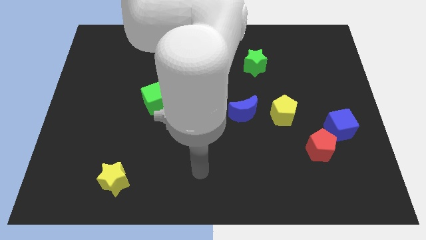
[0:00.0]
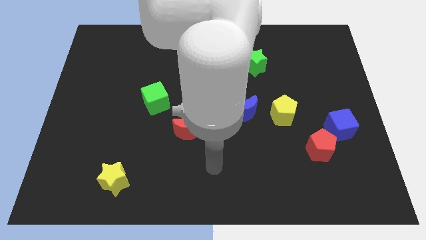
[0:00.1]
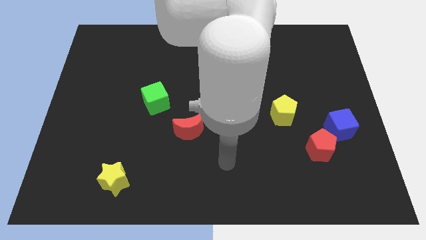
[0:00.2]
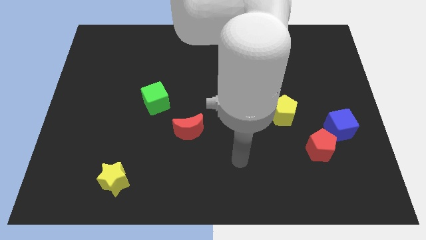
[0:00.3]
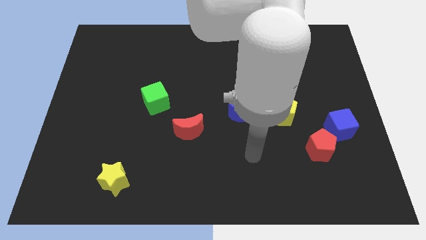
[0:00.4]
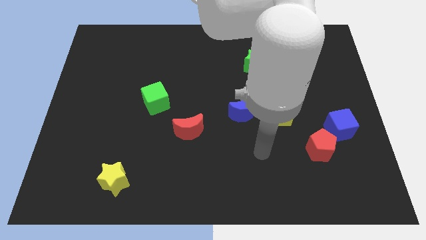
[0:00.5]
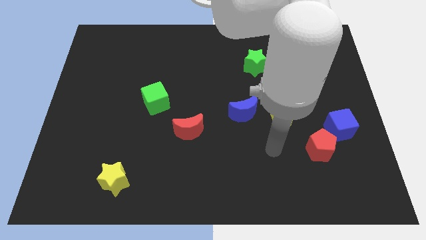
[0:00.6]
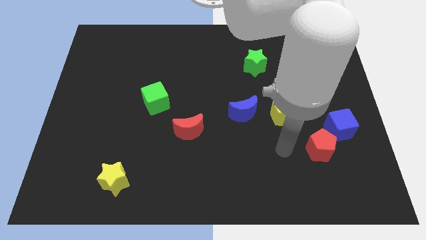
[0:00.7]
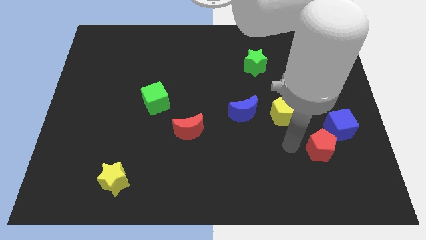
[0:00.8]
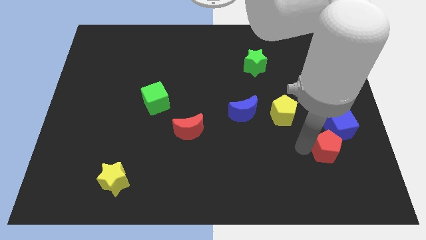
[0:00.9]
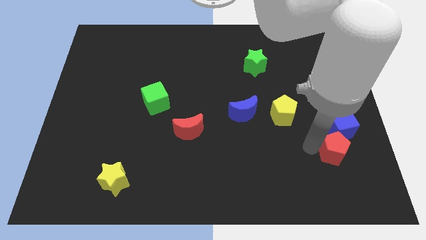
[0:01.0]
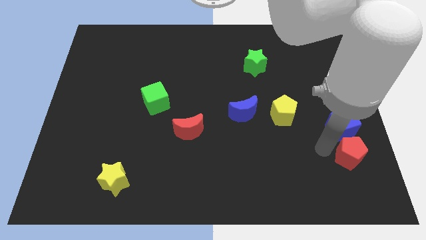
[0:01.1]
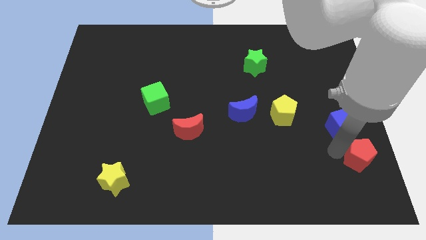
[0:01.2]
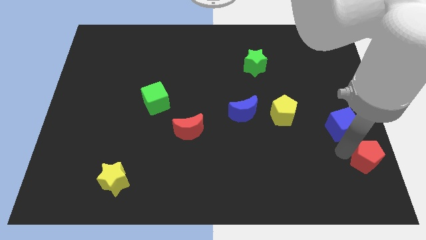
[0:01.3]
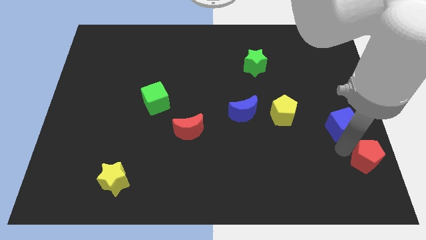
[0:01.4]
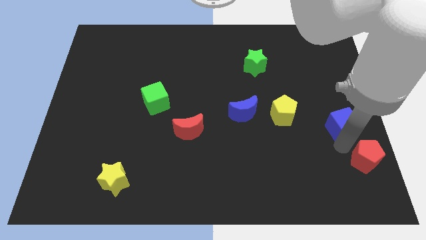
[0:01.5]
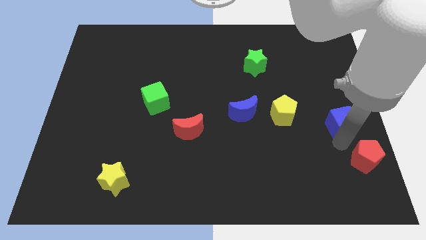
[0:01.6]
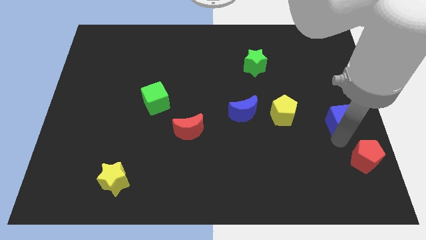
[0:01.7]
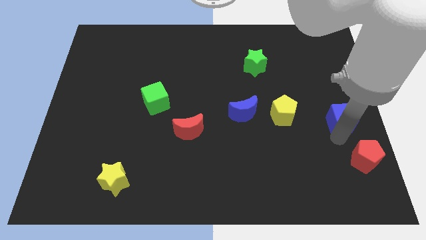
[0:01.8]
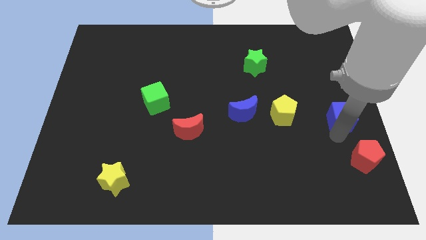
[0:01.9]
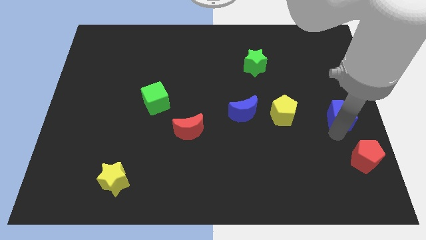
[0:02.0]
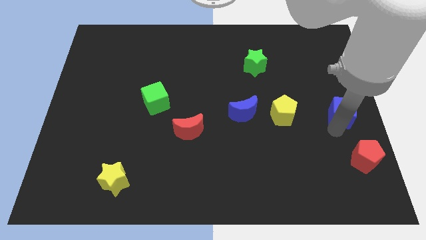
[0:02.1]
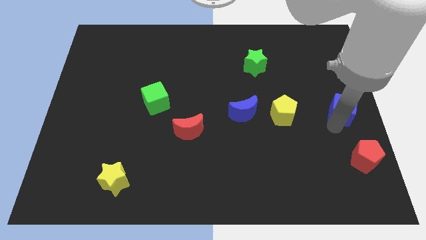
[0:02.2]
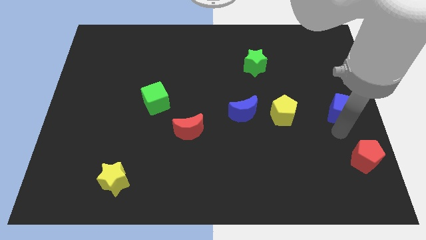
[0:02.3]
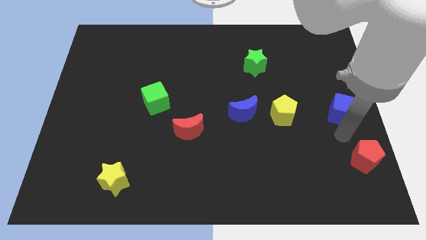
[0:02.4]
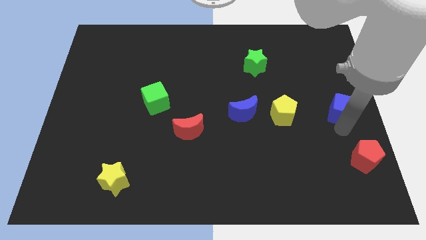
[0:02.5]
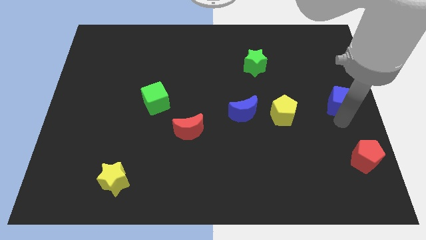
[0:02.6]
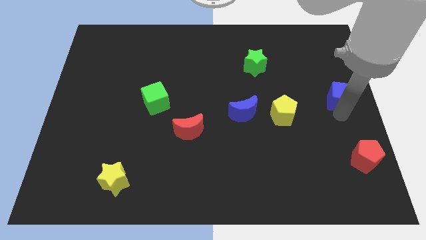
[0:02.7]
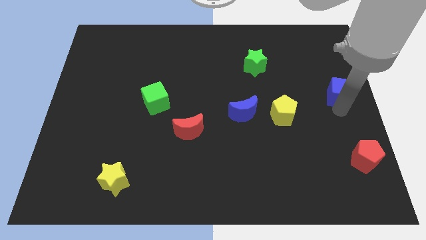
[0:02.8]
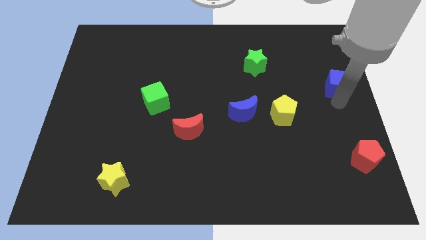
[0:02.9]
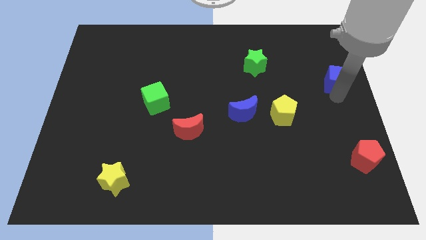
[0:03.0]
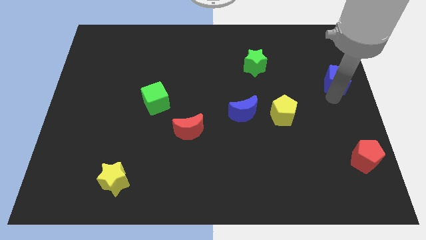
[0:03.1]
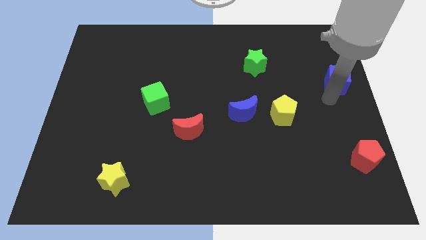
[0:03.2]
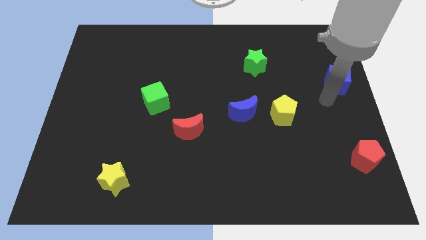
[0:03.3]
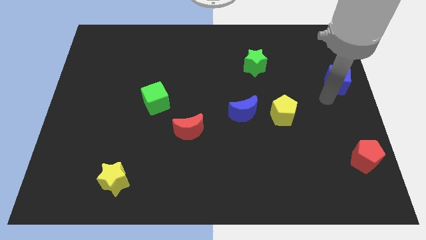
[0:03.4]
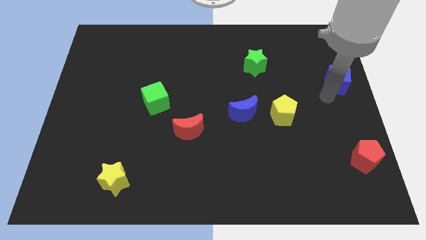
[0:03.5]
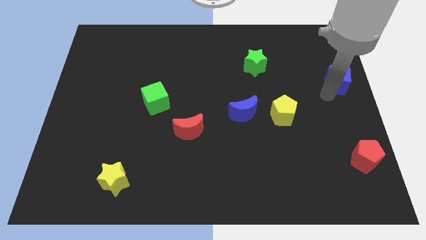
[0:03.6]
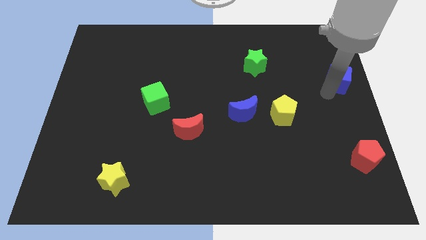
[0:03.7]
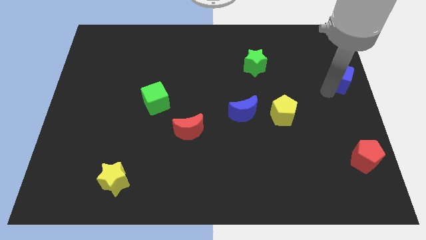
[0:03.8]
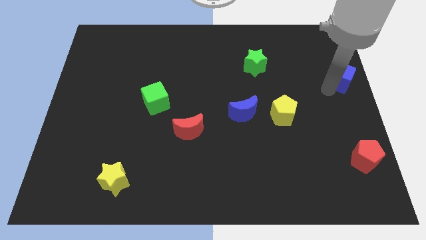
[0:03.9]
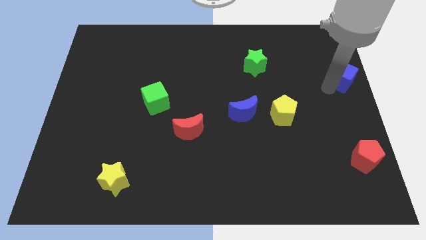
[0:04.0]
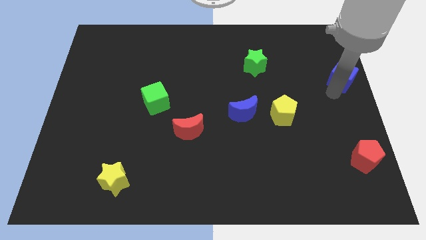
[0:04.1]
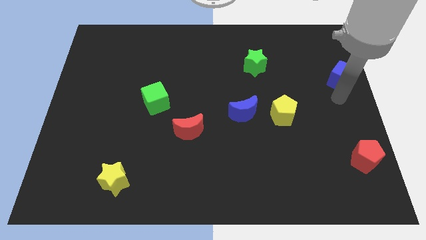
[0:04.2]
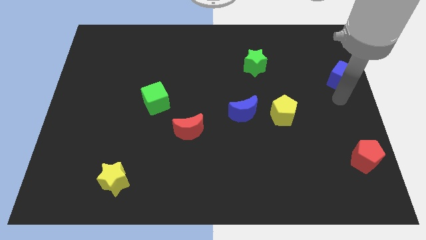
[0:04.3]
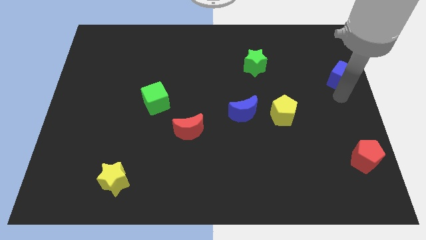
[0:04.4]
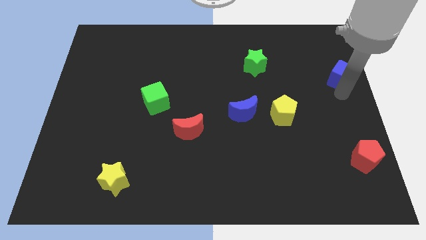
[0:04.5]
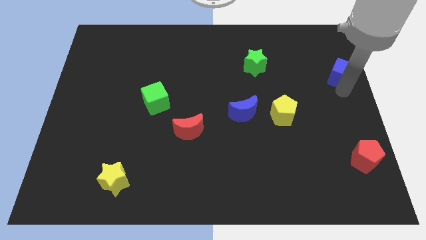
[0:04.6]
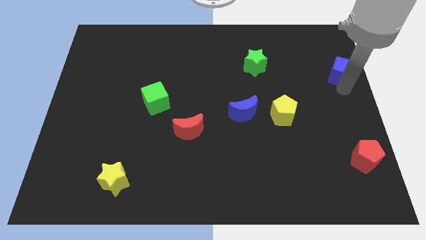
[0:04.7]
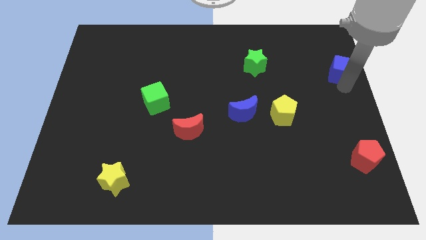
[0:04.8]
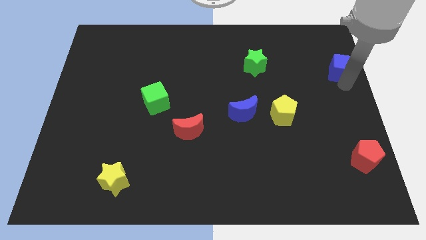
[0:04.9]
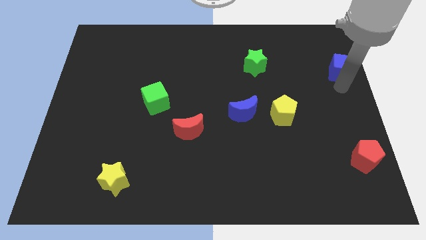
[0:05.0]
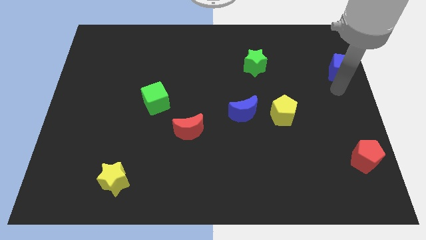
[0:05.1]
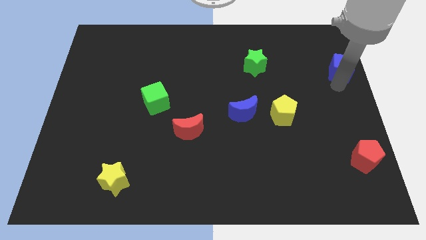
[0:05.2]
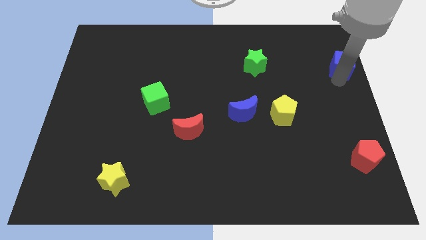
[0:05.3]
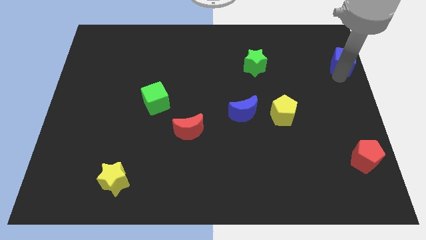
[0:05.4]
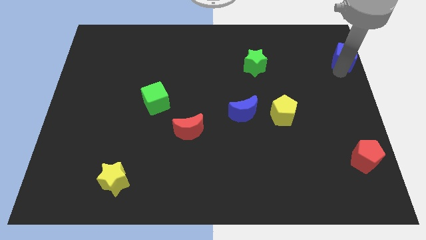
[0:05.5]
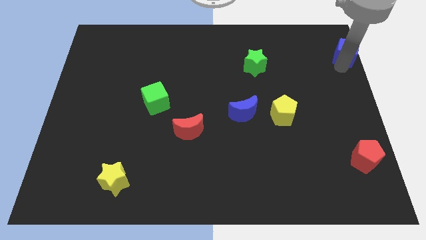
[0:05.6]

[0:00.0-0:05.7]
put the blue cube to the upper right corner
